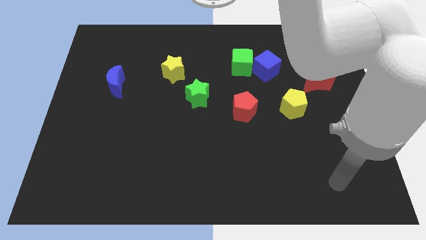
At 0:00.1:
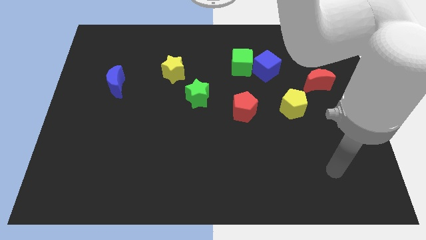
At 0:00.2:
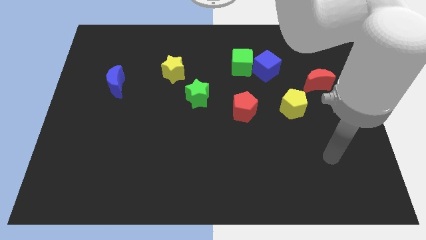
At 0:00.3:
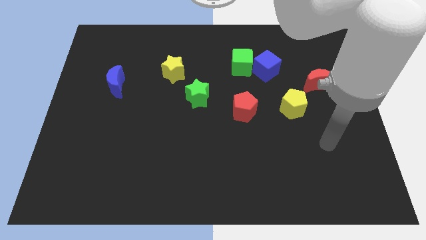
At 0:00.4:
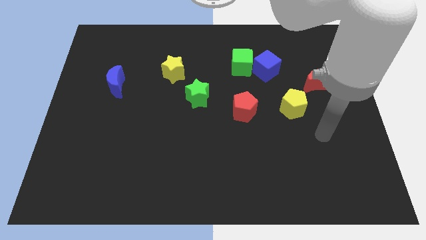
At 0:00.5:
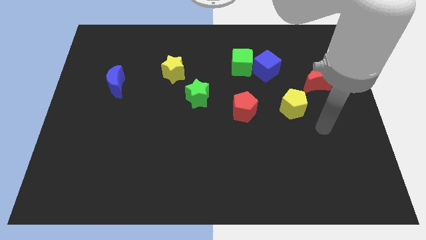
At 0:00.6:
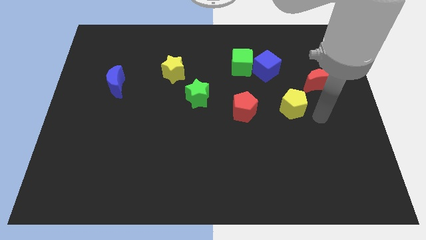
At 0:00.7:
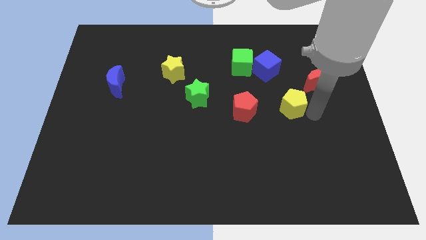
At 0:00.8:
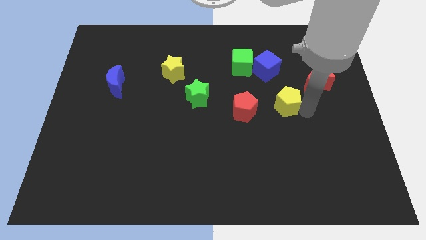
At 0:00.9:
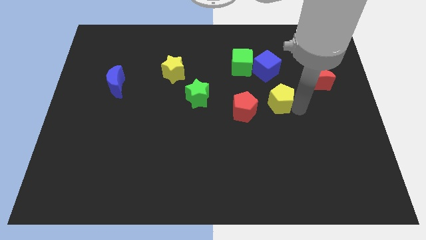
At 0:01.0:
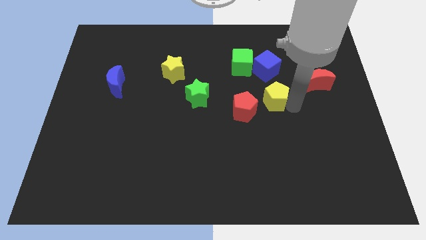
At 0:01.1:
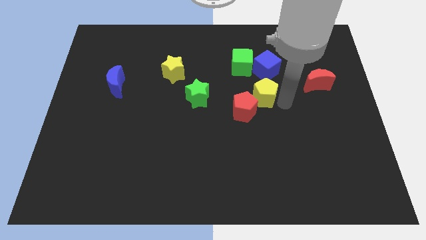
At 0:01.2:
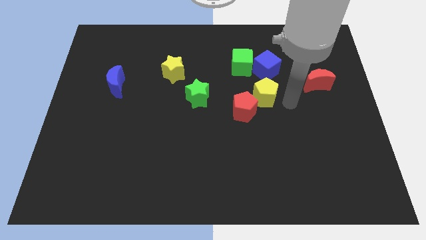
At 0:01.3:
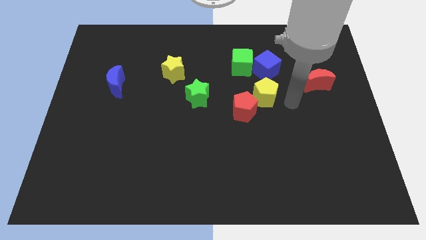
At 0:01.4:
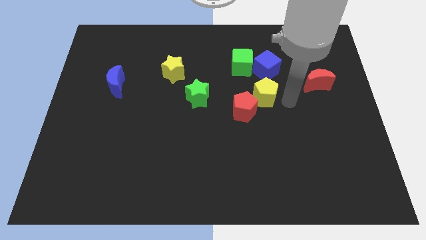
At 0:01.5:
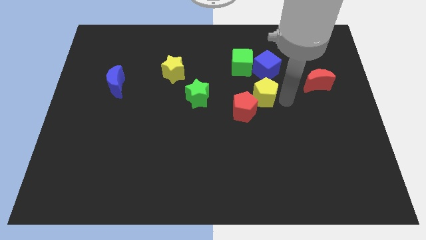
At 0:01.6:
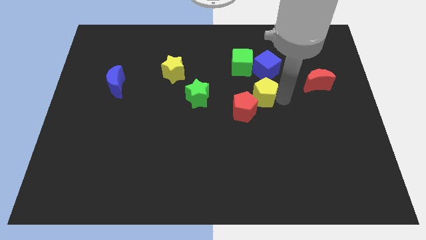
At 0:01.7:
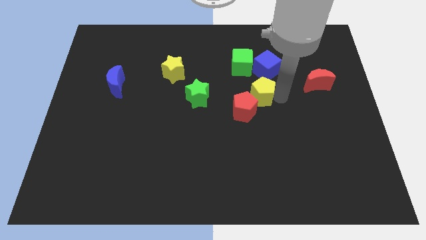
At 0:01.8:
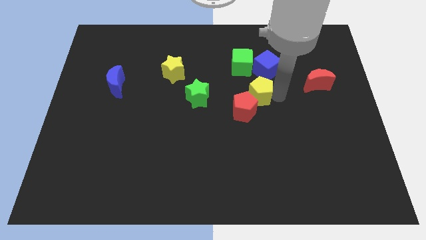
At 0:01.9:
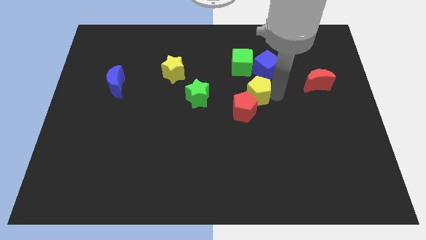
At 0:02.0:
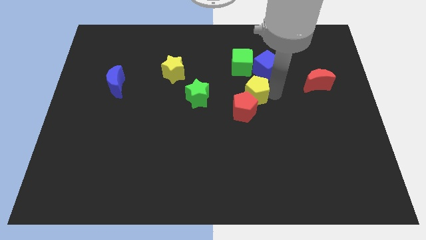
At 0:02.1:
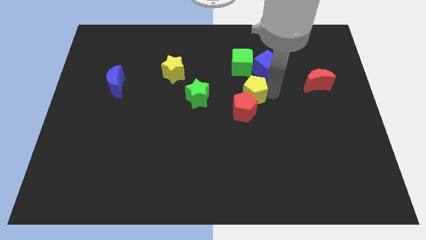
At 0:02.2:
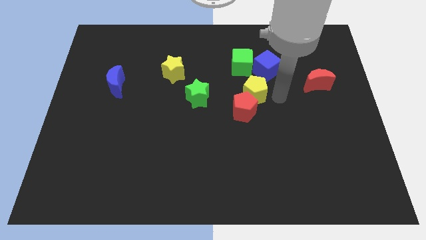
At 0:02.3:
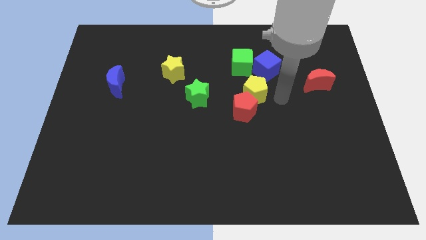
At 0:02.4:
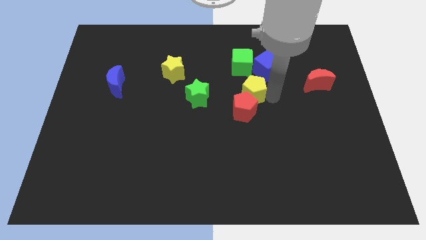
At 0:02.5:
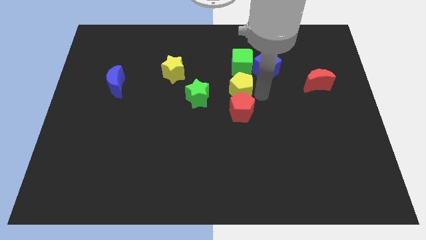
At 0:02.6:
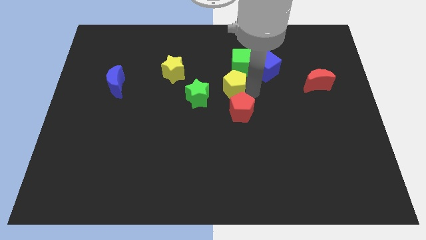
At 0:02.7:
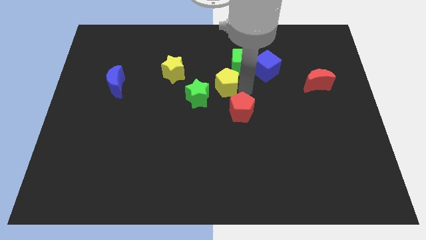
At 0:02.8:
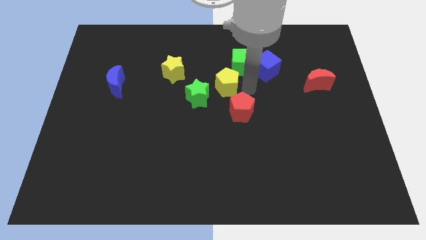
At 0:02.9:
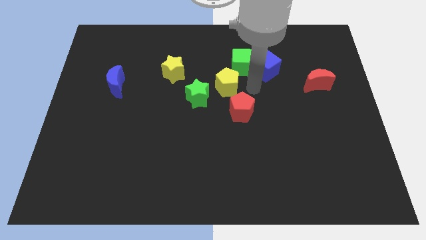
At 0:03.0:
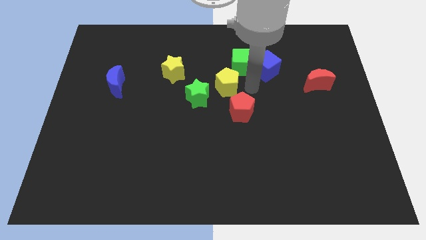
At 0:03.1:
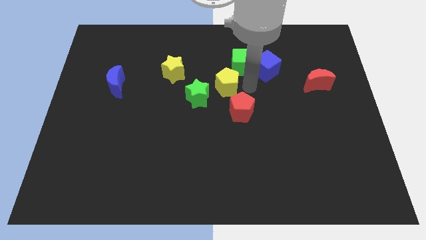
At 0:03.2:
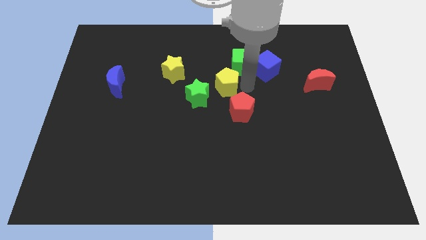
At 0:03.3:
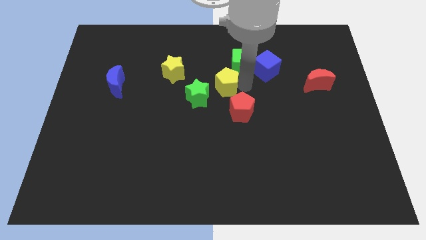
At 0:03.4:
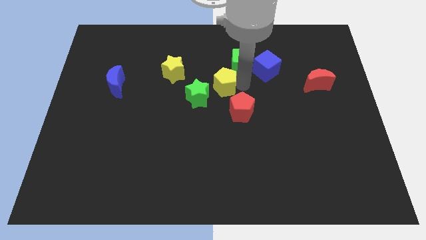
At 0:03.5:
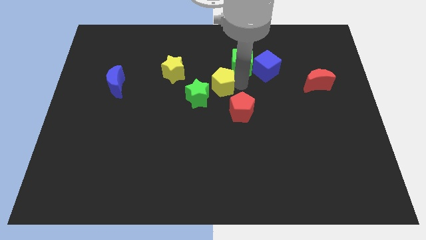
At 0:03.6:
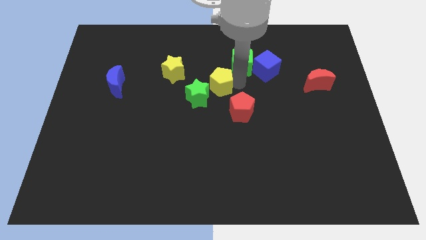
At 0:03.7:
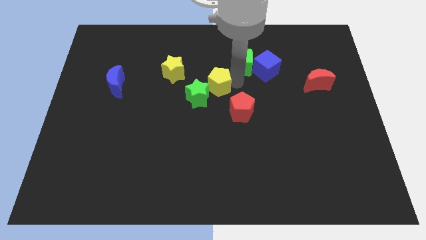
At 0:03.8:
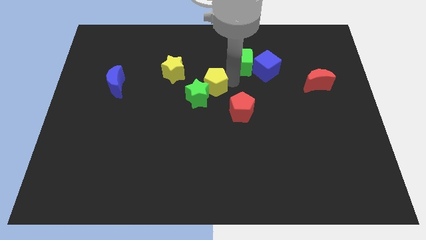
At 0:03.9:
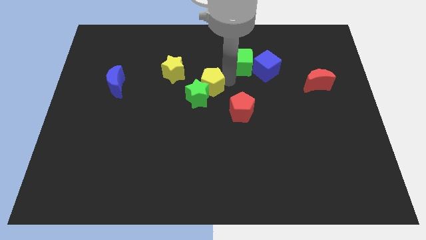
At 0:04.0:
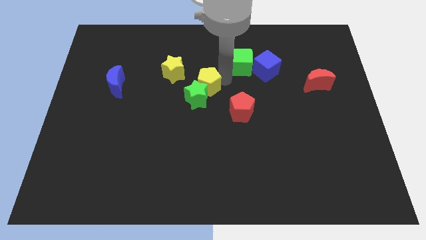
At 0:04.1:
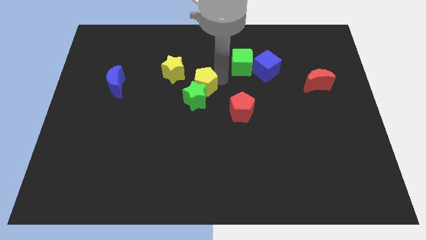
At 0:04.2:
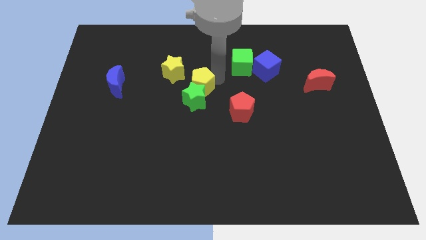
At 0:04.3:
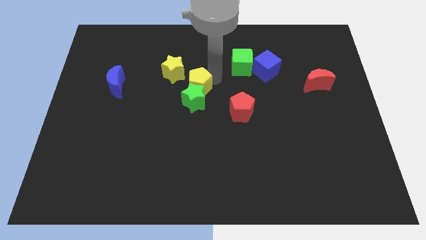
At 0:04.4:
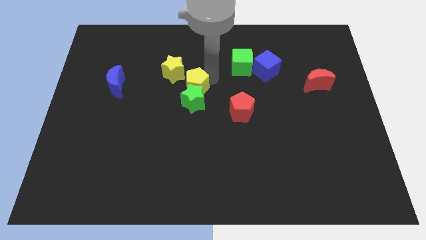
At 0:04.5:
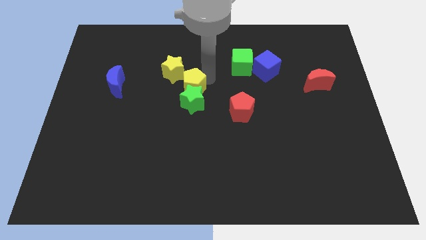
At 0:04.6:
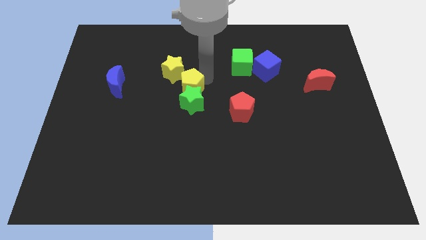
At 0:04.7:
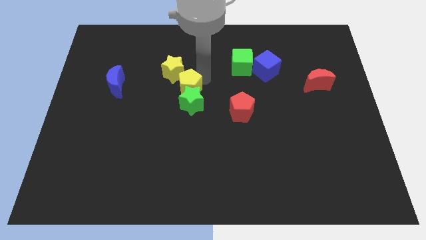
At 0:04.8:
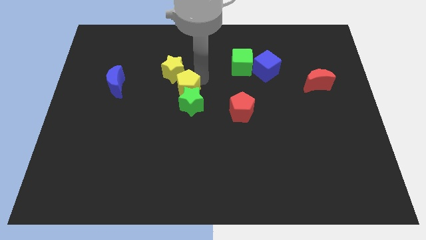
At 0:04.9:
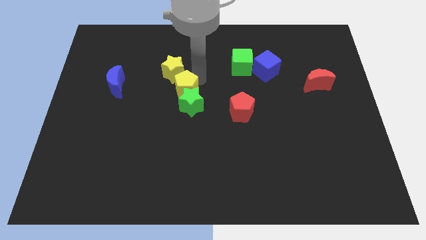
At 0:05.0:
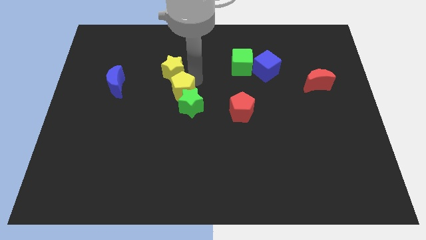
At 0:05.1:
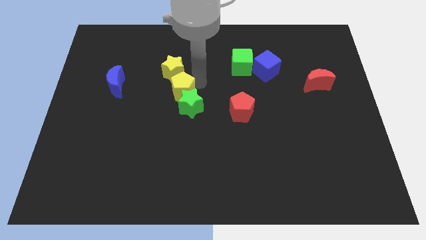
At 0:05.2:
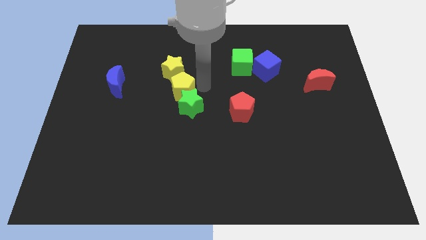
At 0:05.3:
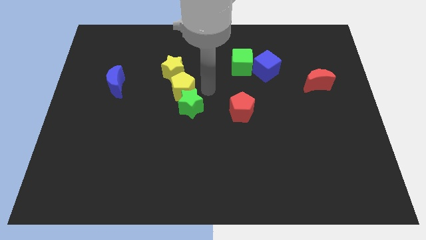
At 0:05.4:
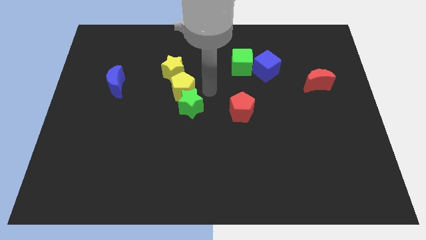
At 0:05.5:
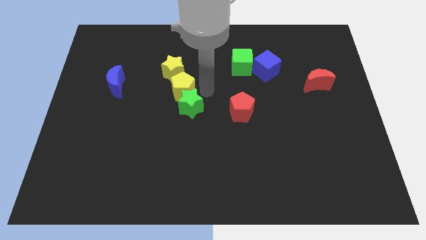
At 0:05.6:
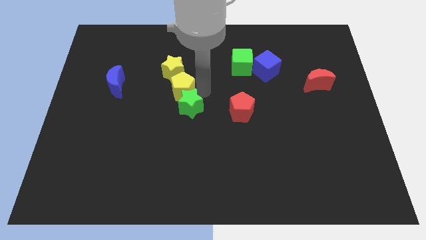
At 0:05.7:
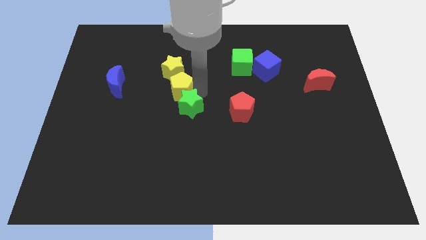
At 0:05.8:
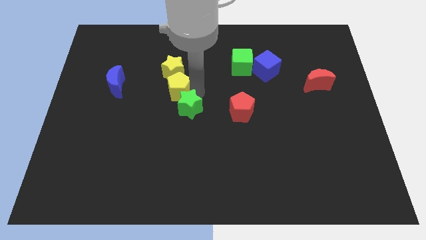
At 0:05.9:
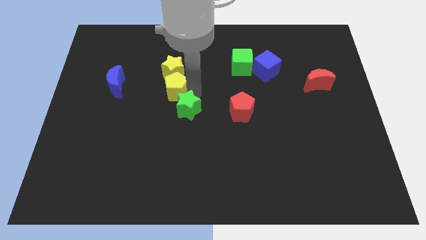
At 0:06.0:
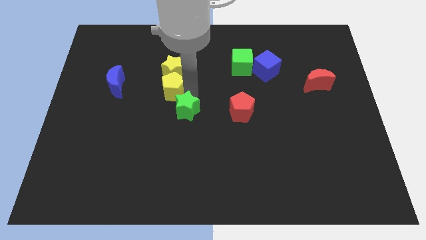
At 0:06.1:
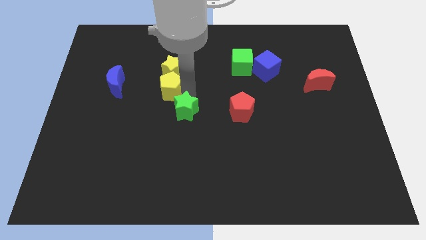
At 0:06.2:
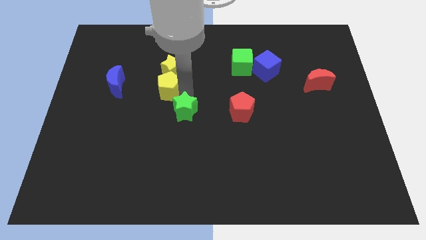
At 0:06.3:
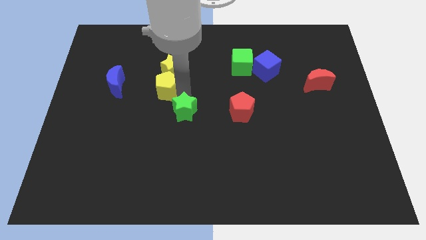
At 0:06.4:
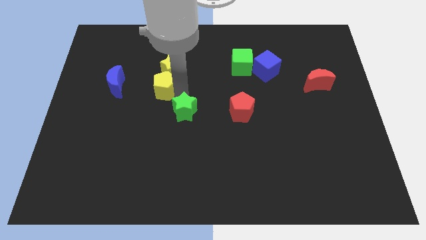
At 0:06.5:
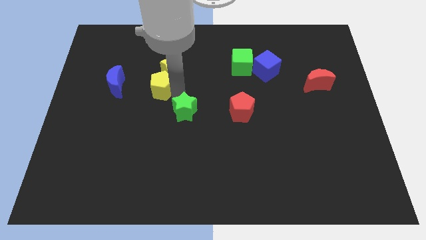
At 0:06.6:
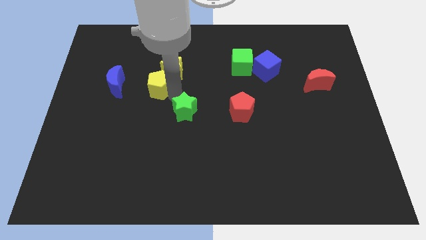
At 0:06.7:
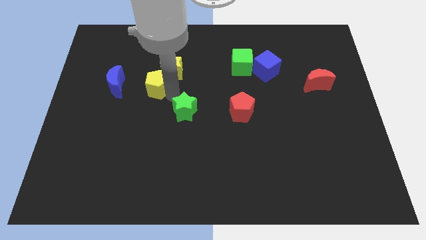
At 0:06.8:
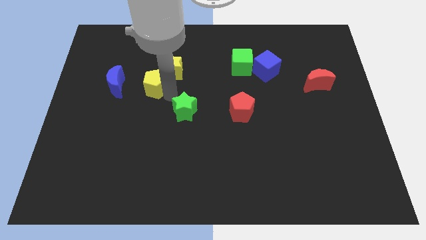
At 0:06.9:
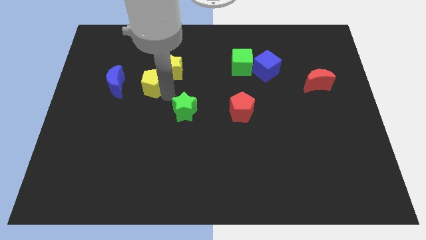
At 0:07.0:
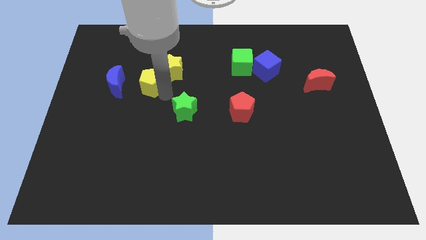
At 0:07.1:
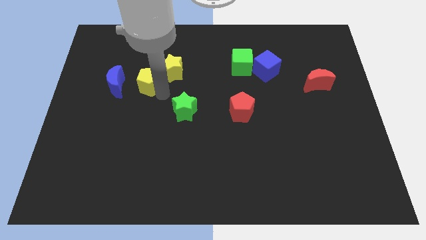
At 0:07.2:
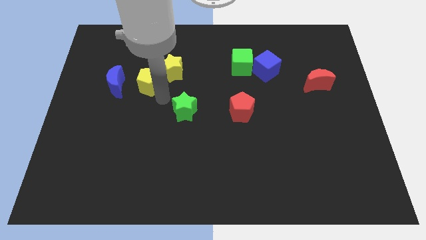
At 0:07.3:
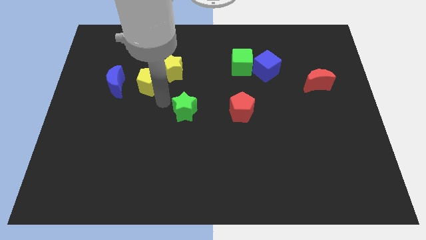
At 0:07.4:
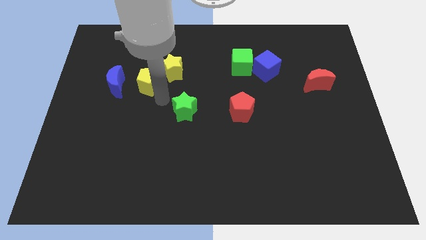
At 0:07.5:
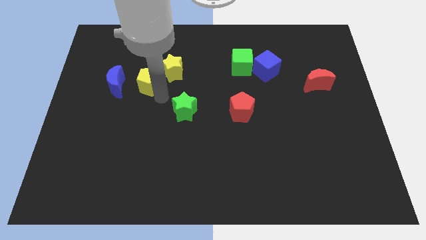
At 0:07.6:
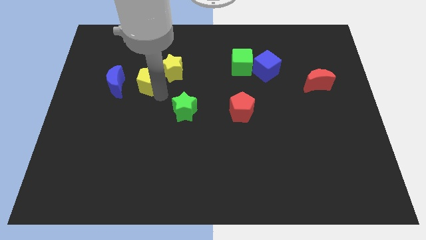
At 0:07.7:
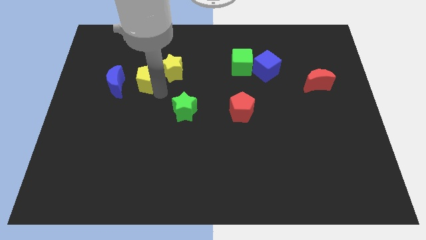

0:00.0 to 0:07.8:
push the yellow pentagon to the top right of the blue moon
